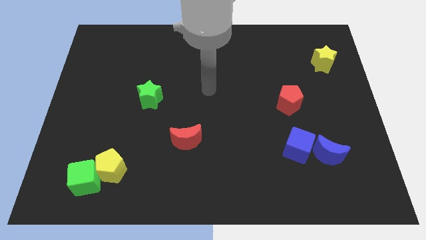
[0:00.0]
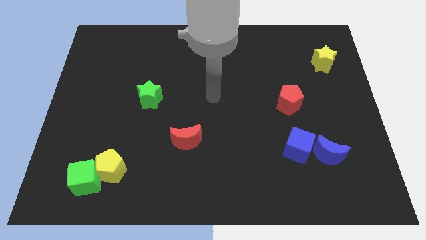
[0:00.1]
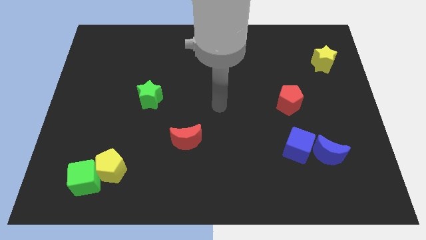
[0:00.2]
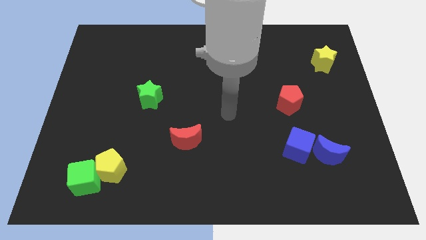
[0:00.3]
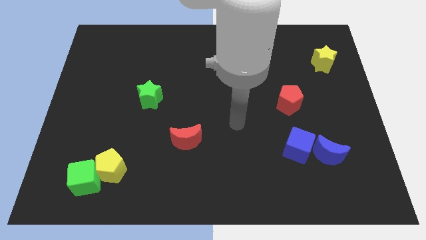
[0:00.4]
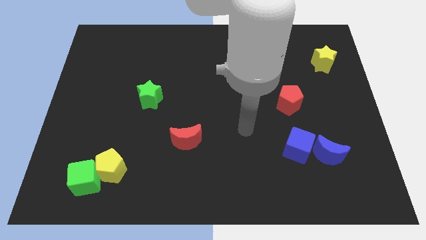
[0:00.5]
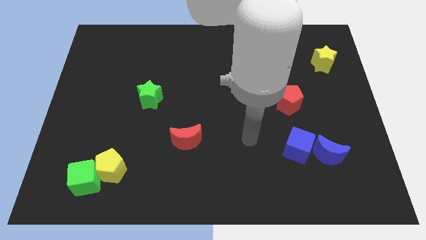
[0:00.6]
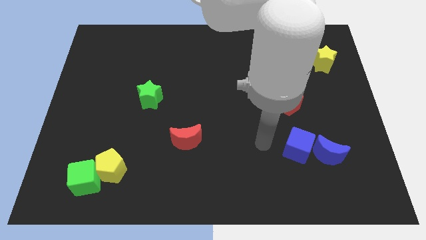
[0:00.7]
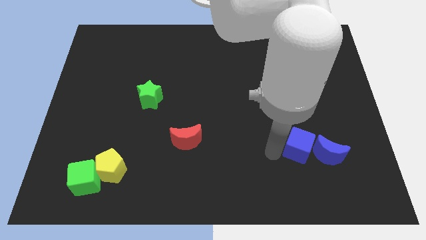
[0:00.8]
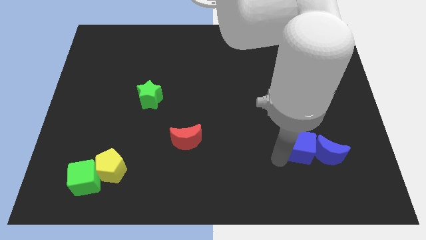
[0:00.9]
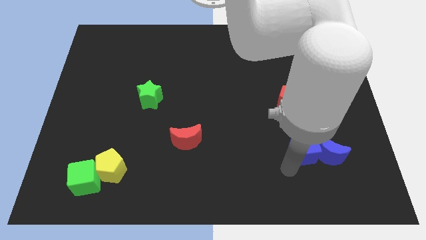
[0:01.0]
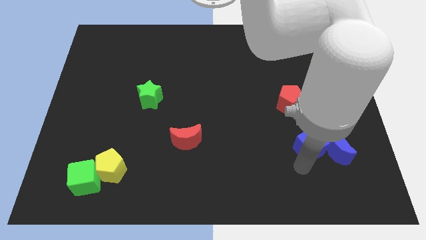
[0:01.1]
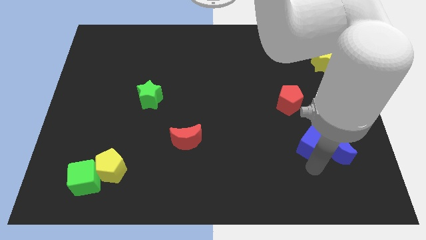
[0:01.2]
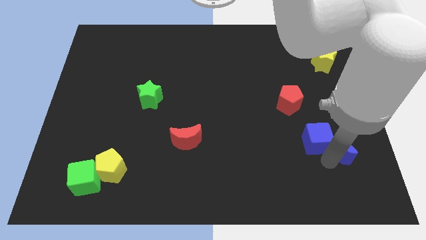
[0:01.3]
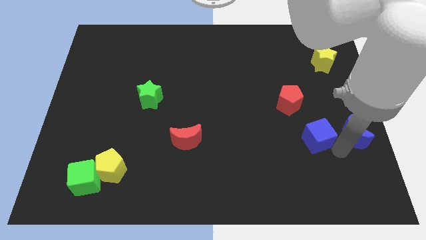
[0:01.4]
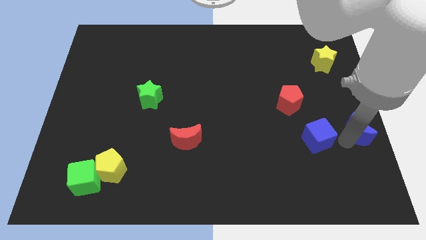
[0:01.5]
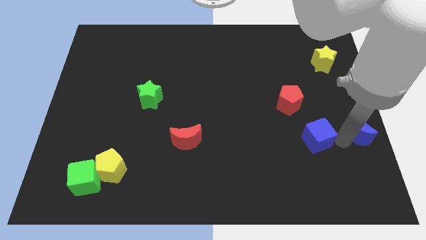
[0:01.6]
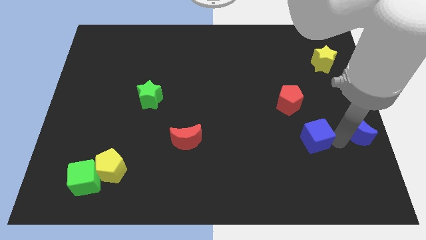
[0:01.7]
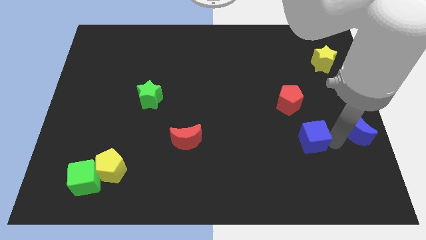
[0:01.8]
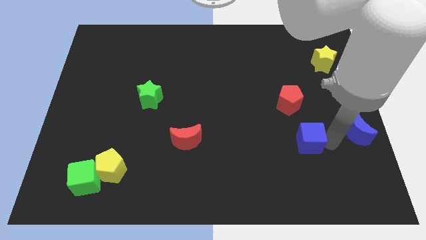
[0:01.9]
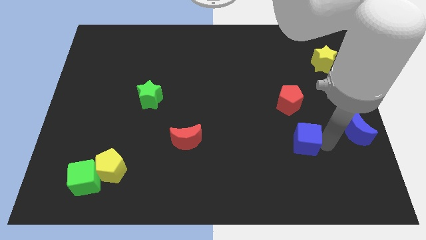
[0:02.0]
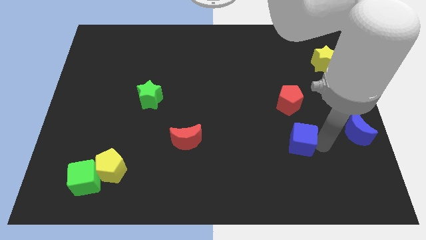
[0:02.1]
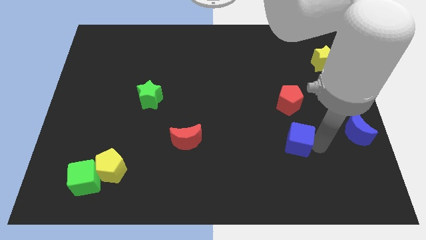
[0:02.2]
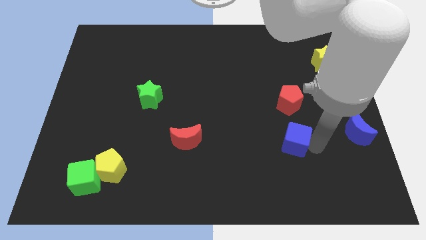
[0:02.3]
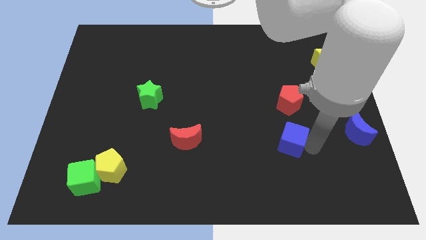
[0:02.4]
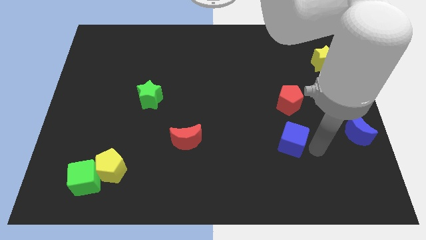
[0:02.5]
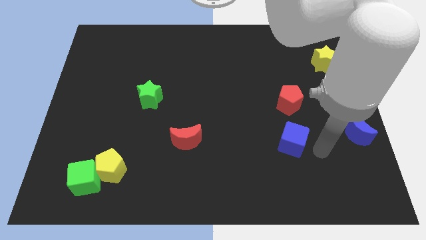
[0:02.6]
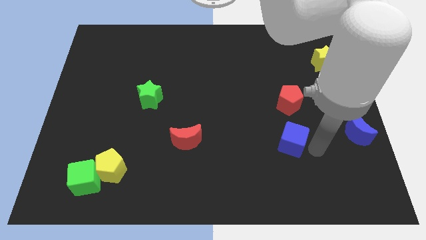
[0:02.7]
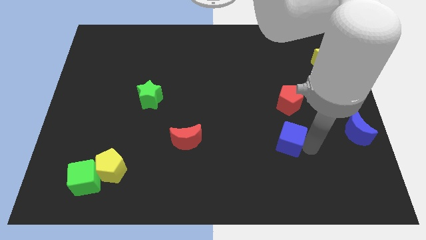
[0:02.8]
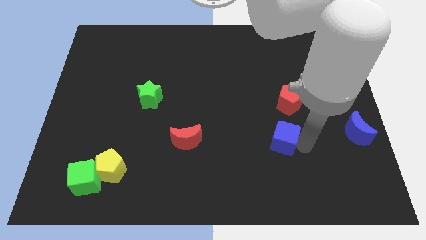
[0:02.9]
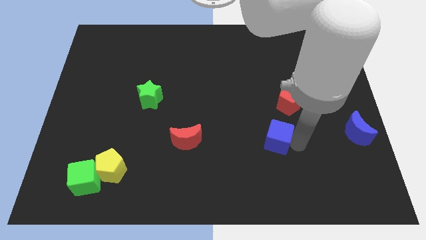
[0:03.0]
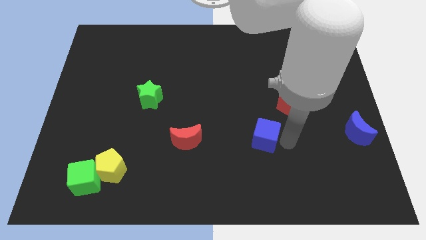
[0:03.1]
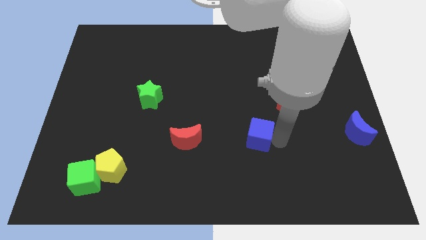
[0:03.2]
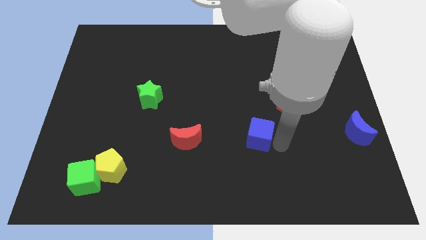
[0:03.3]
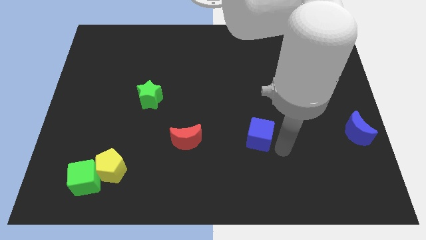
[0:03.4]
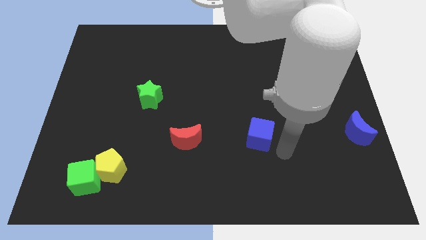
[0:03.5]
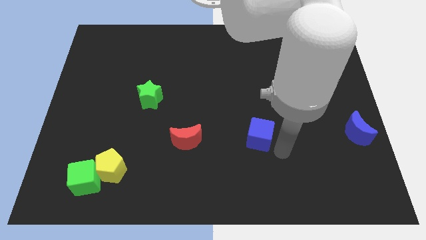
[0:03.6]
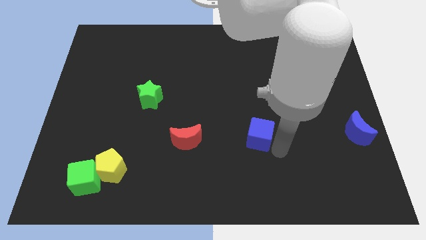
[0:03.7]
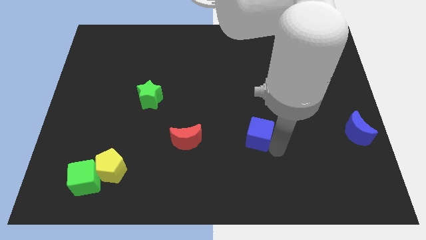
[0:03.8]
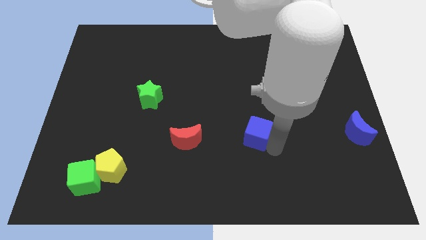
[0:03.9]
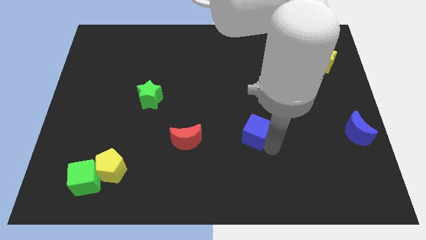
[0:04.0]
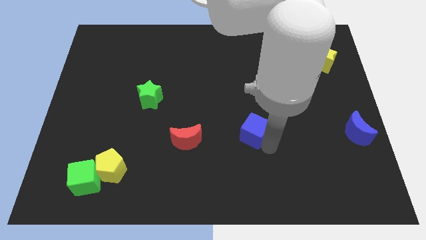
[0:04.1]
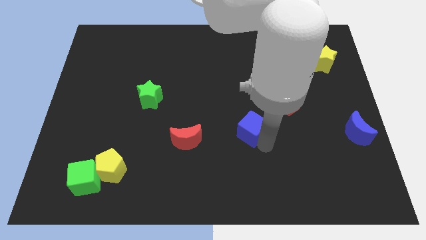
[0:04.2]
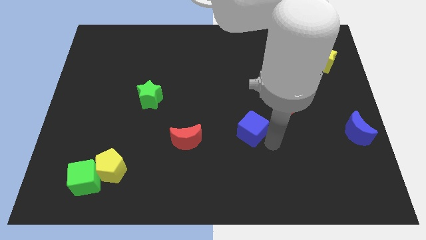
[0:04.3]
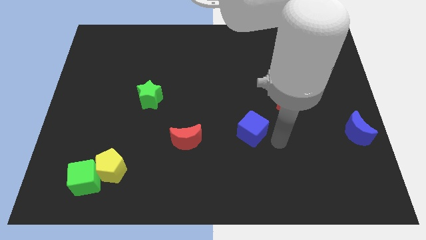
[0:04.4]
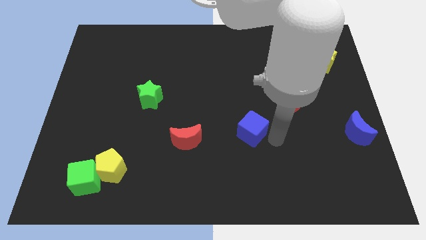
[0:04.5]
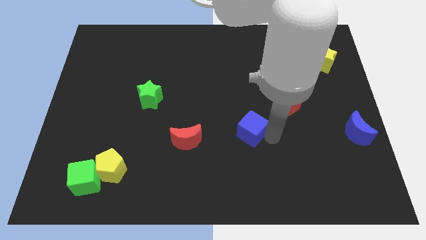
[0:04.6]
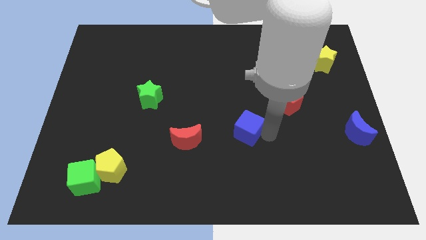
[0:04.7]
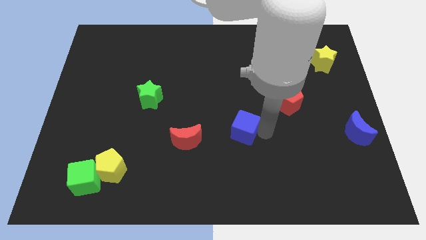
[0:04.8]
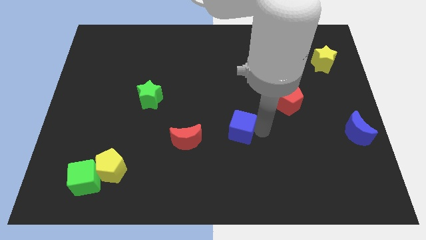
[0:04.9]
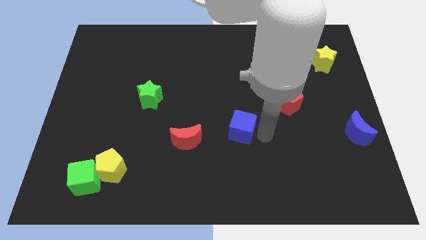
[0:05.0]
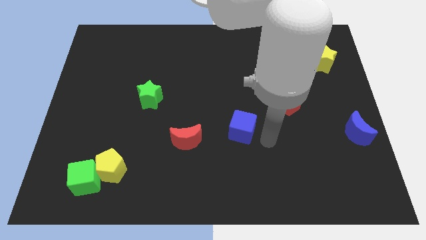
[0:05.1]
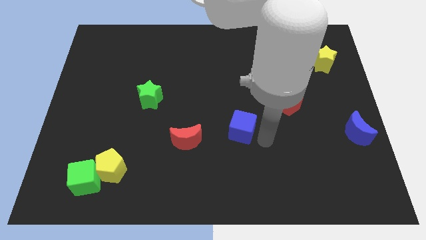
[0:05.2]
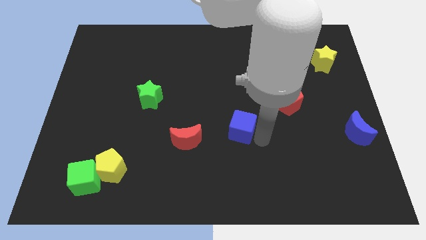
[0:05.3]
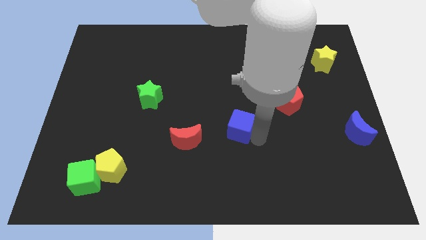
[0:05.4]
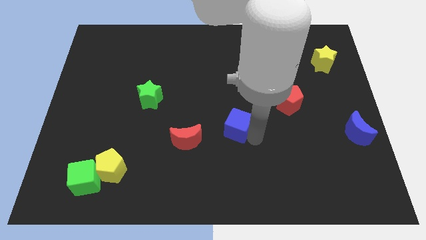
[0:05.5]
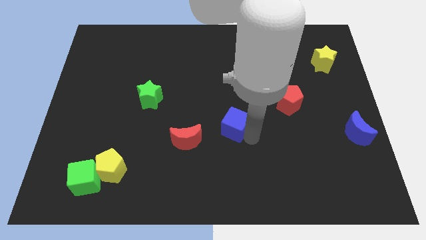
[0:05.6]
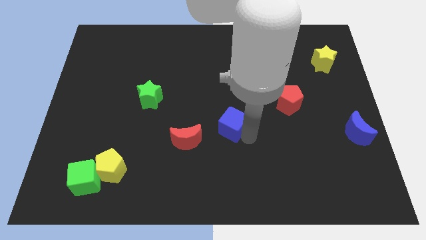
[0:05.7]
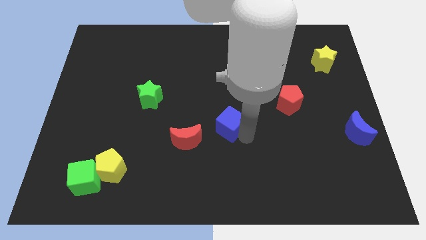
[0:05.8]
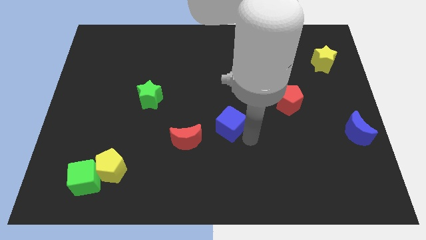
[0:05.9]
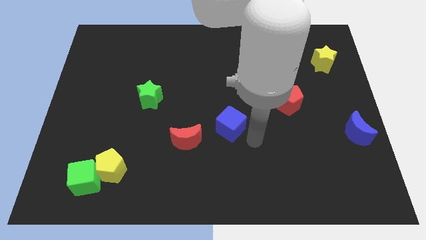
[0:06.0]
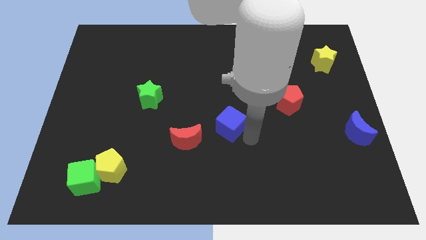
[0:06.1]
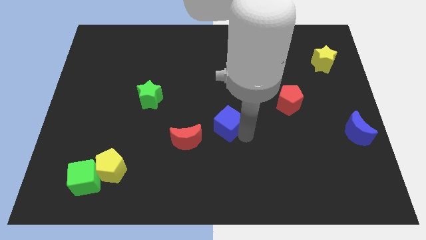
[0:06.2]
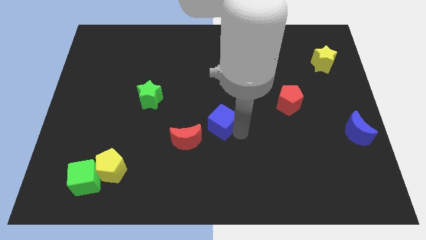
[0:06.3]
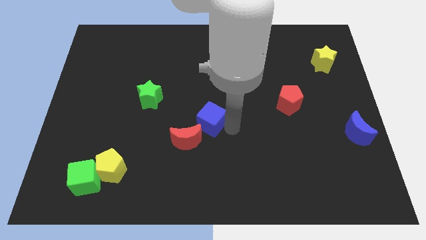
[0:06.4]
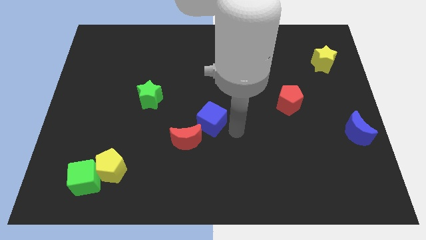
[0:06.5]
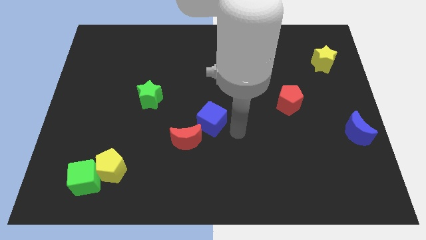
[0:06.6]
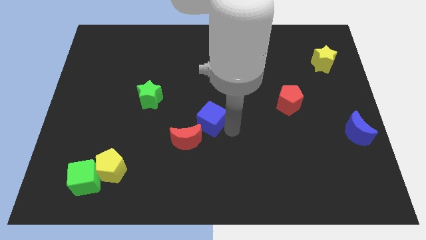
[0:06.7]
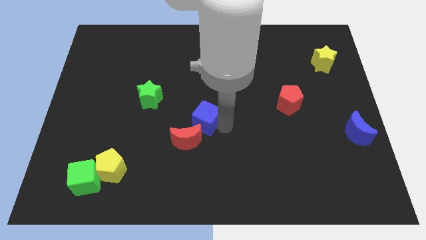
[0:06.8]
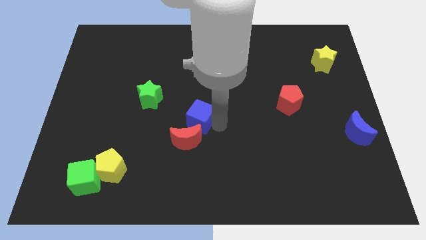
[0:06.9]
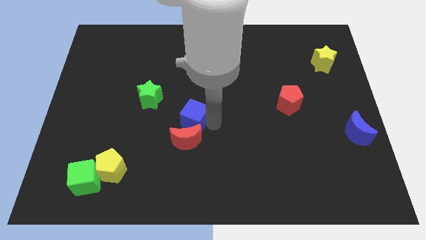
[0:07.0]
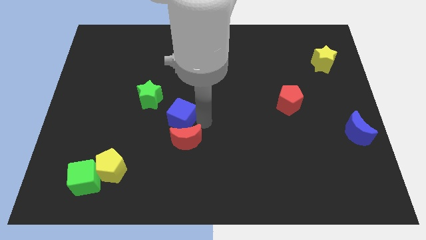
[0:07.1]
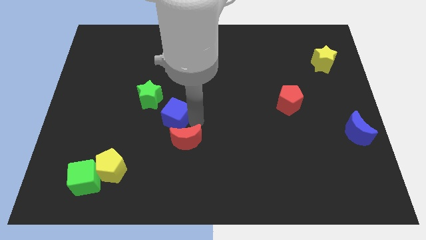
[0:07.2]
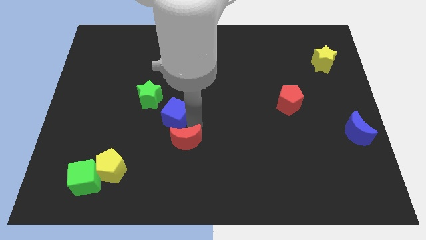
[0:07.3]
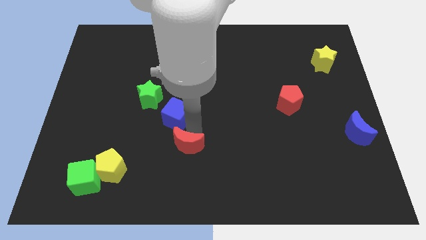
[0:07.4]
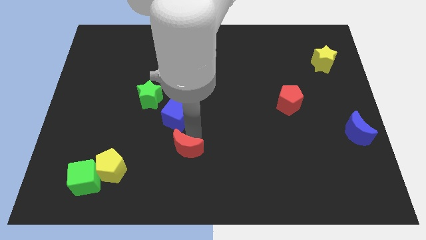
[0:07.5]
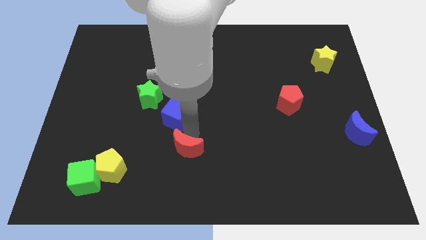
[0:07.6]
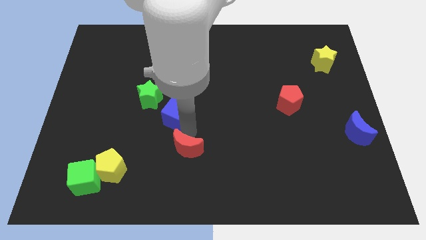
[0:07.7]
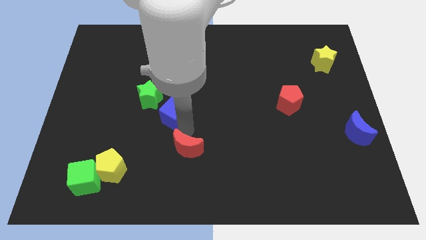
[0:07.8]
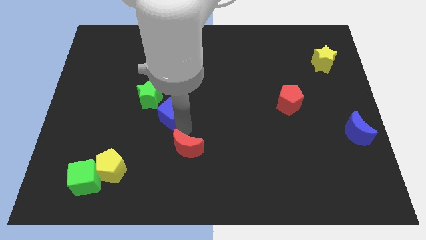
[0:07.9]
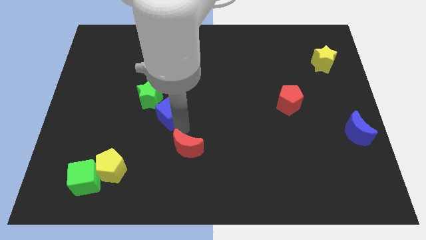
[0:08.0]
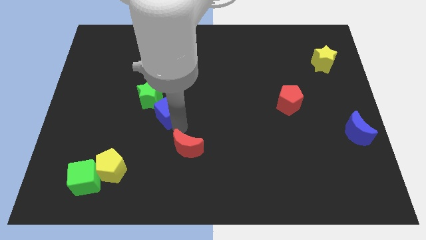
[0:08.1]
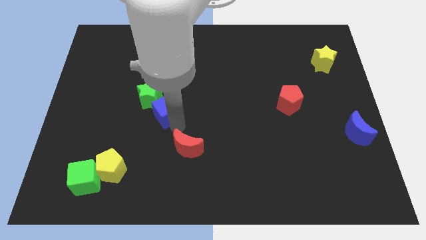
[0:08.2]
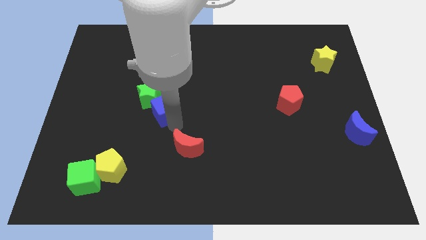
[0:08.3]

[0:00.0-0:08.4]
push the blue cube close to the green star
